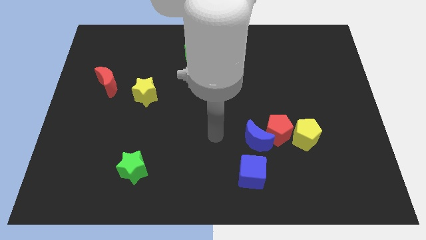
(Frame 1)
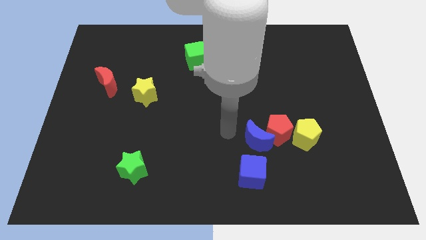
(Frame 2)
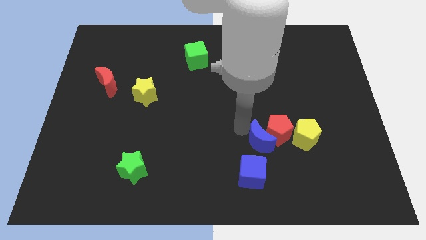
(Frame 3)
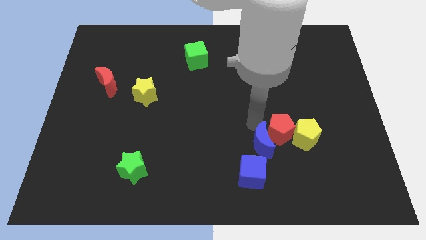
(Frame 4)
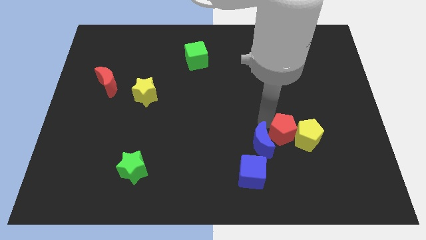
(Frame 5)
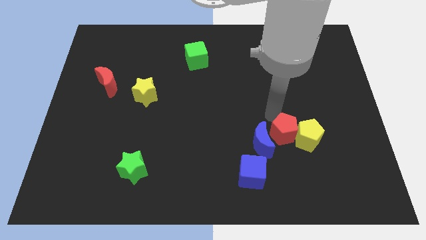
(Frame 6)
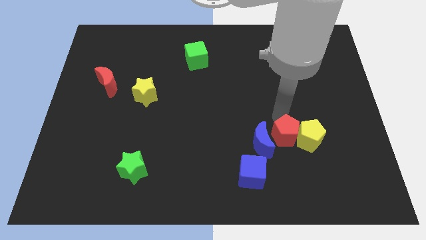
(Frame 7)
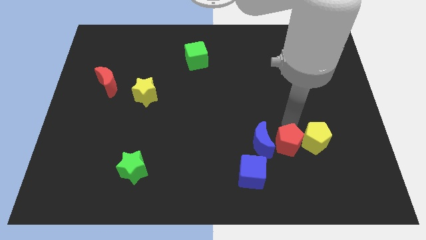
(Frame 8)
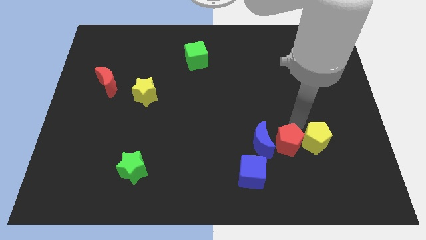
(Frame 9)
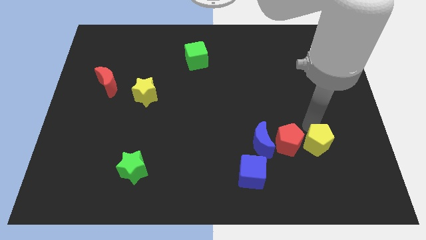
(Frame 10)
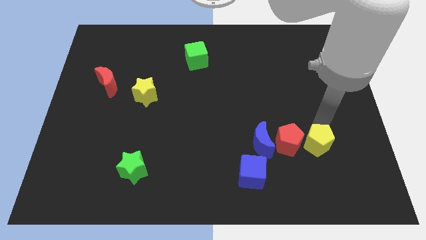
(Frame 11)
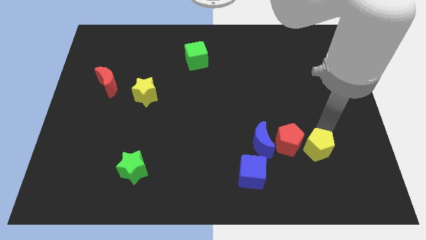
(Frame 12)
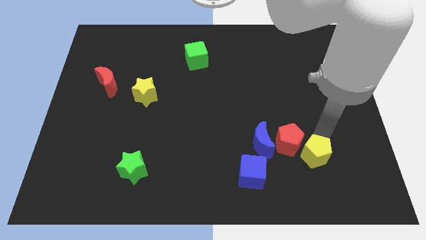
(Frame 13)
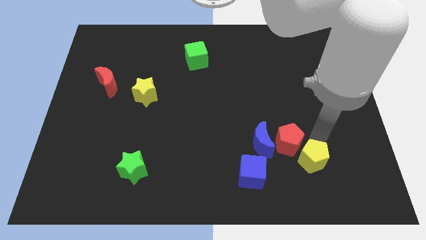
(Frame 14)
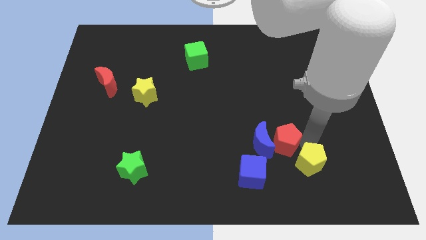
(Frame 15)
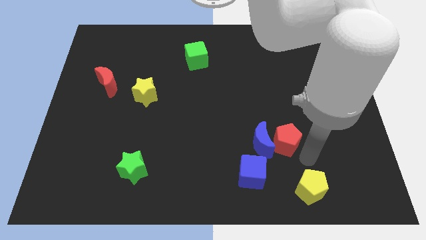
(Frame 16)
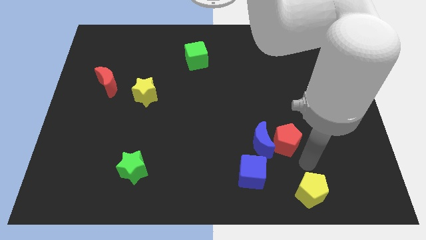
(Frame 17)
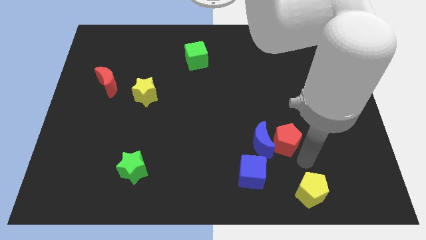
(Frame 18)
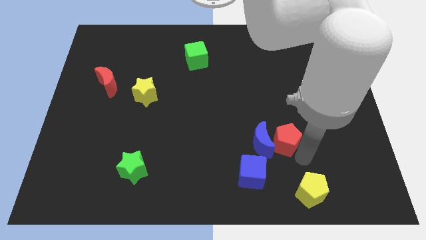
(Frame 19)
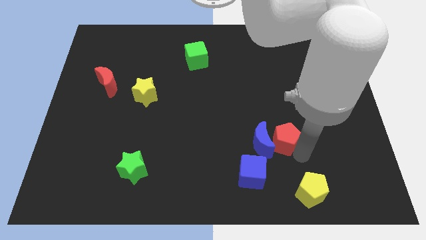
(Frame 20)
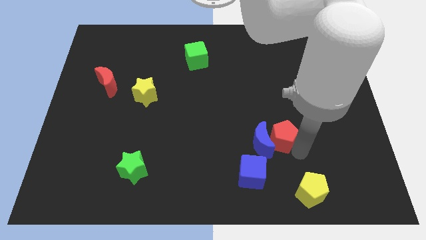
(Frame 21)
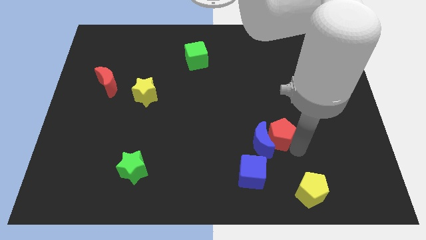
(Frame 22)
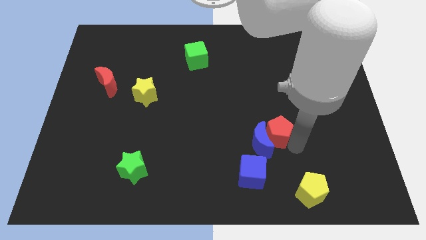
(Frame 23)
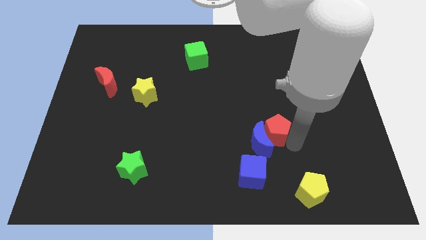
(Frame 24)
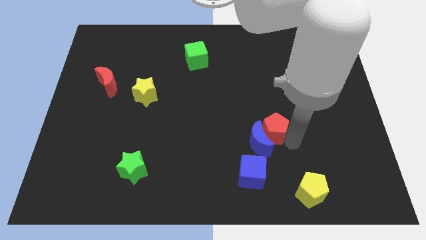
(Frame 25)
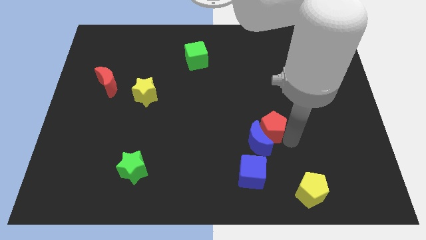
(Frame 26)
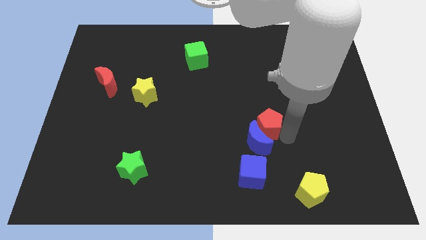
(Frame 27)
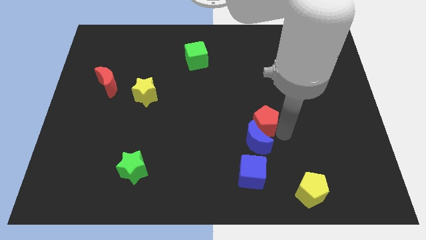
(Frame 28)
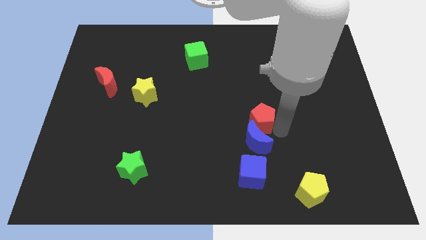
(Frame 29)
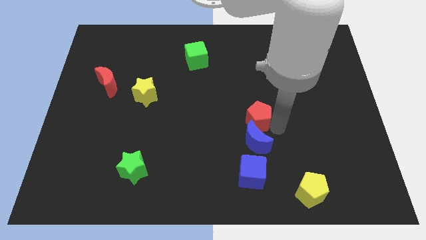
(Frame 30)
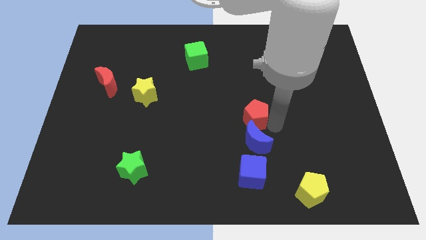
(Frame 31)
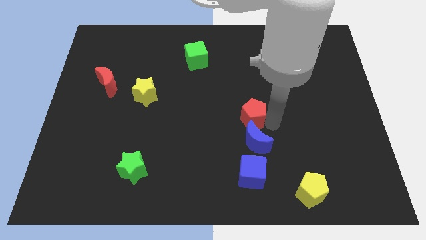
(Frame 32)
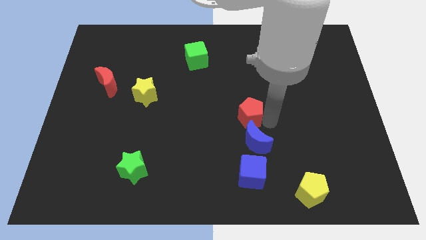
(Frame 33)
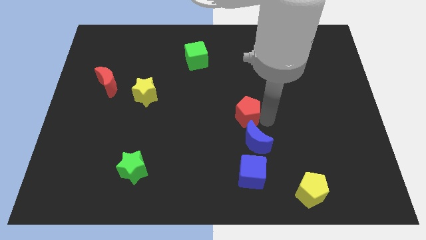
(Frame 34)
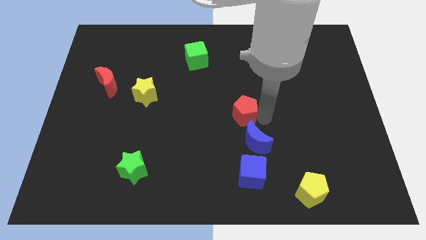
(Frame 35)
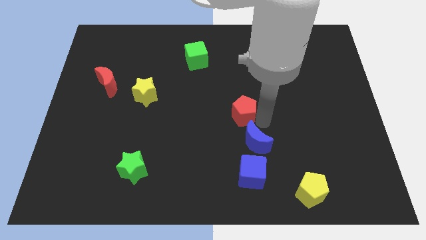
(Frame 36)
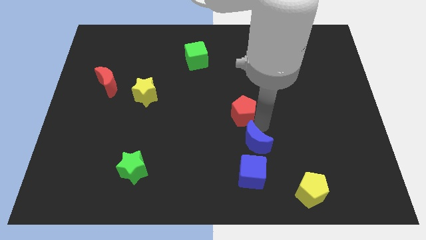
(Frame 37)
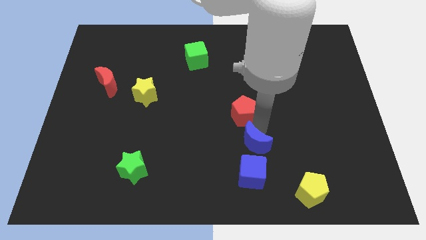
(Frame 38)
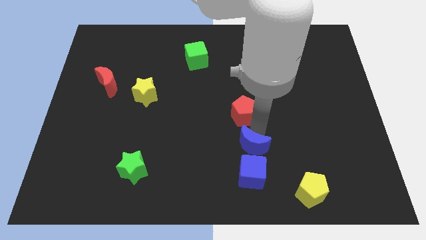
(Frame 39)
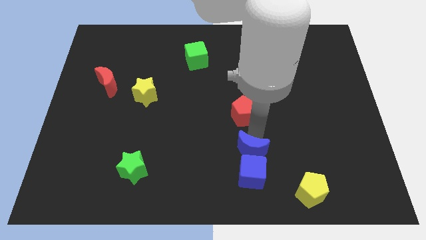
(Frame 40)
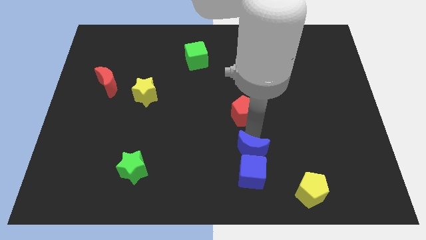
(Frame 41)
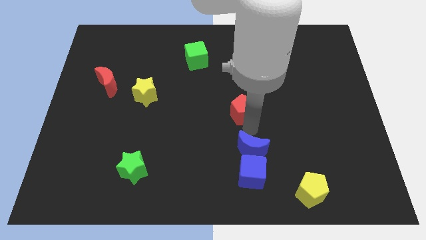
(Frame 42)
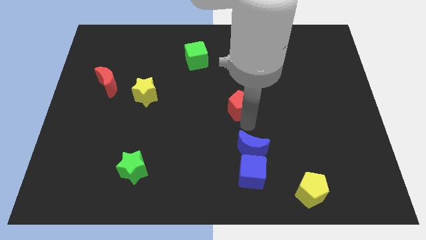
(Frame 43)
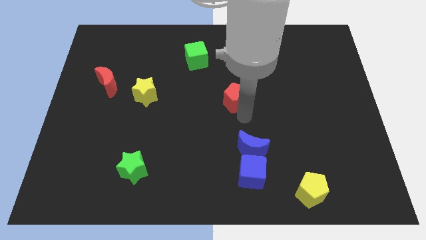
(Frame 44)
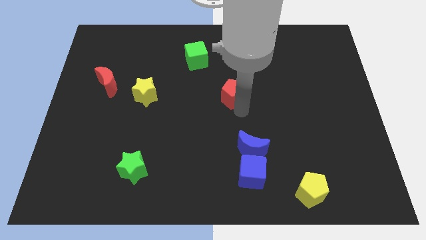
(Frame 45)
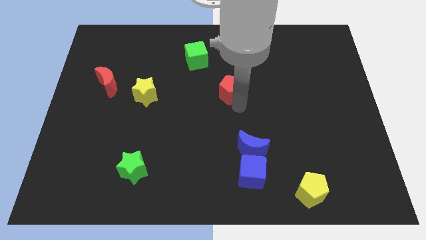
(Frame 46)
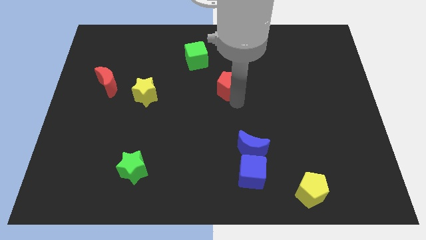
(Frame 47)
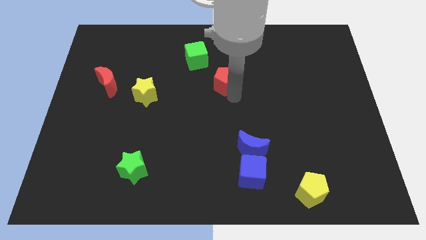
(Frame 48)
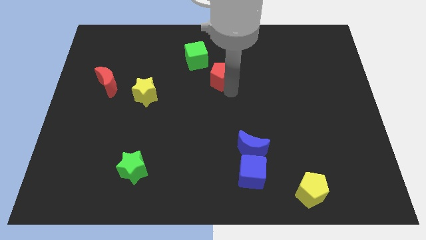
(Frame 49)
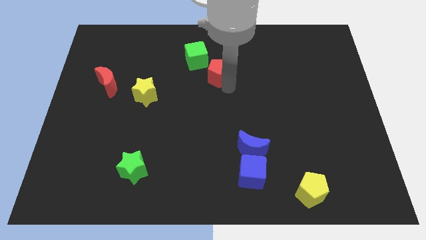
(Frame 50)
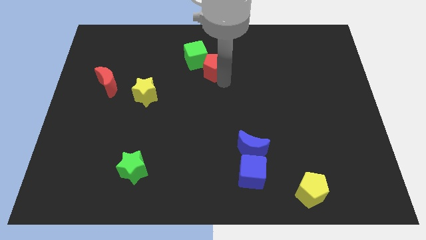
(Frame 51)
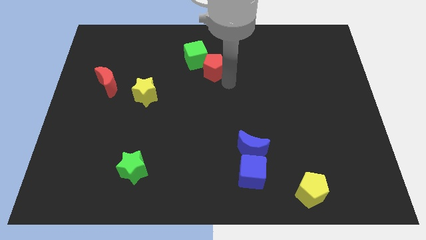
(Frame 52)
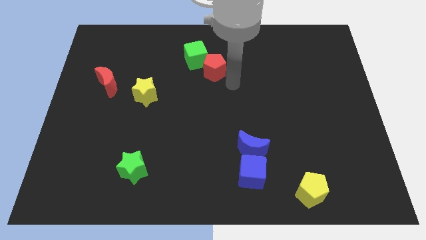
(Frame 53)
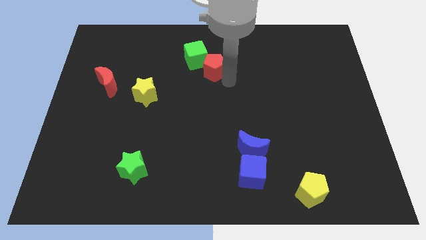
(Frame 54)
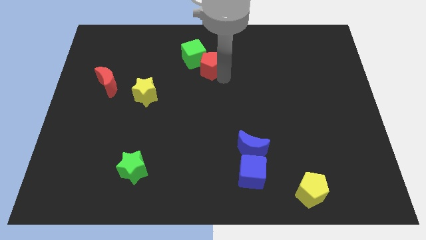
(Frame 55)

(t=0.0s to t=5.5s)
slide the red pentagon towards the green cube

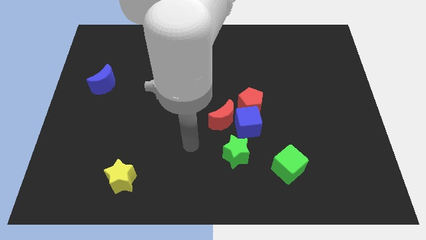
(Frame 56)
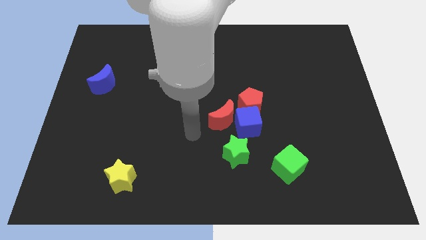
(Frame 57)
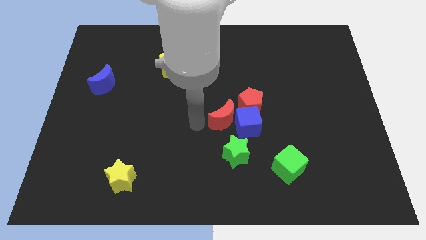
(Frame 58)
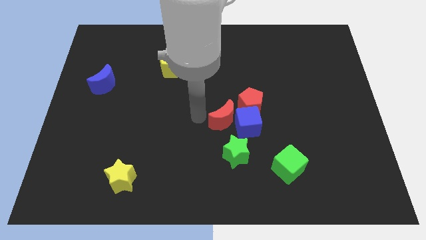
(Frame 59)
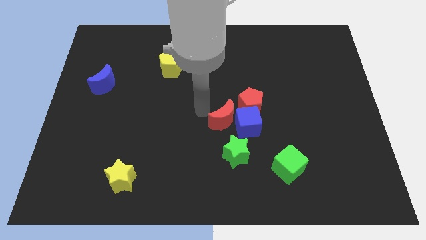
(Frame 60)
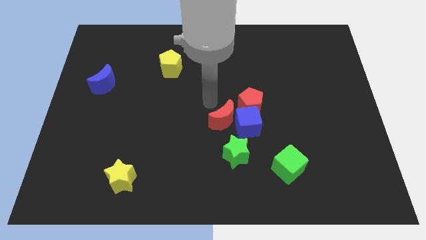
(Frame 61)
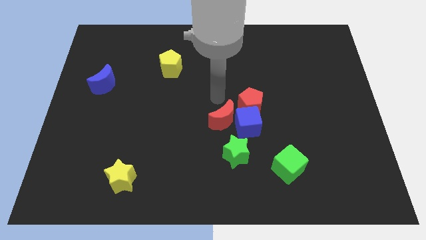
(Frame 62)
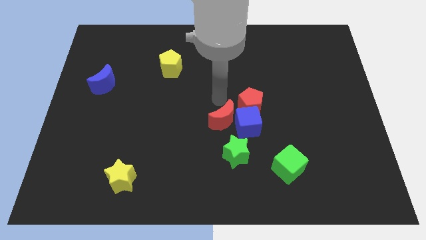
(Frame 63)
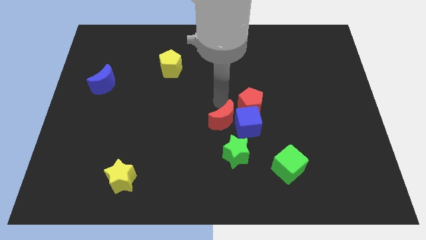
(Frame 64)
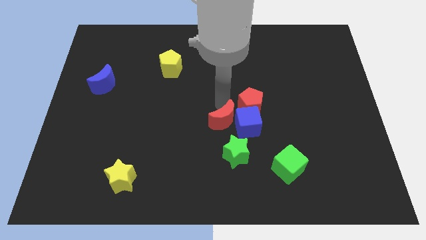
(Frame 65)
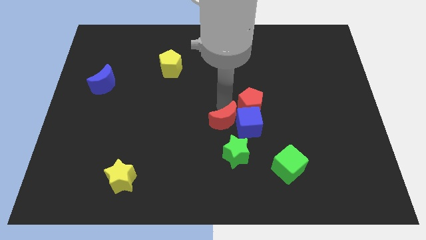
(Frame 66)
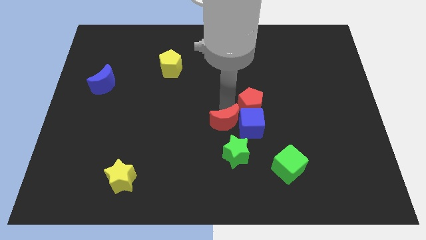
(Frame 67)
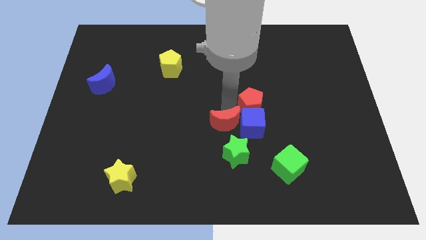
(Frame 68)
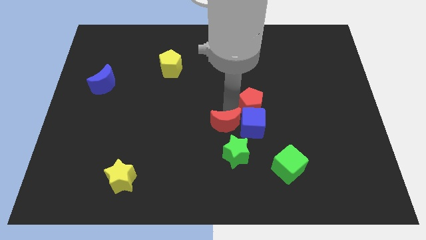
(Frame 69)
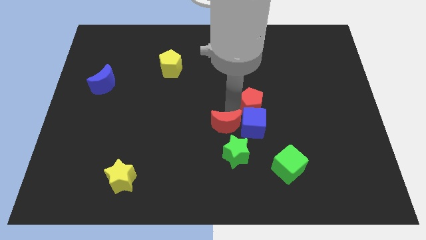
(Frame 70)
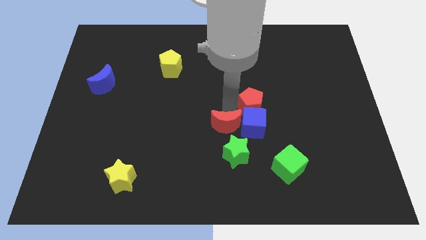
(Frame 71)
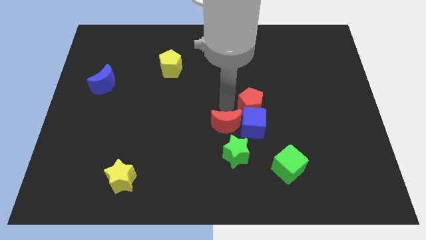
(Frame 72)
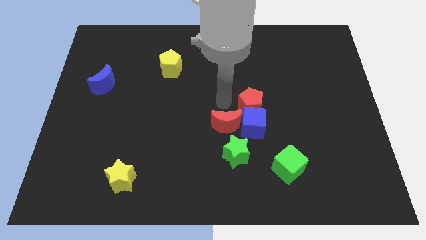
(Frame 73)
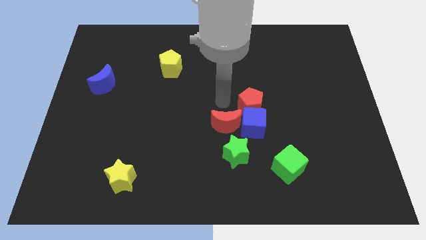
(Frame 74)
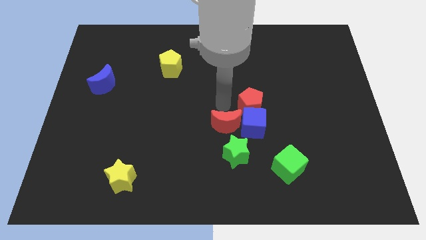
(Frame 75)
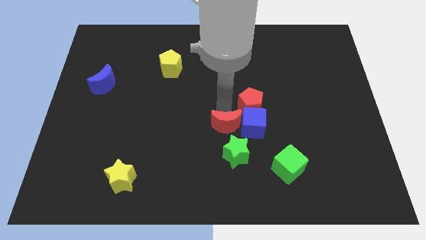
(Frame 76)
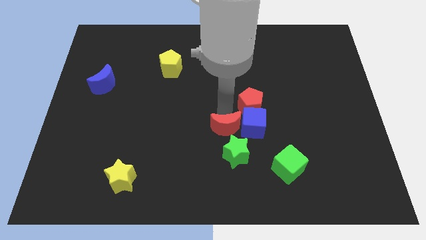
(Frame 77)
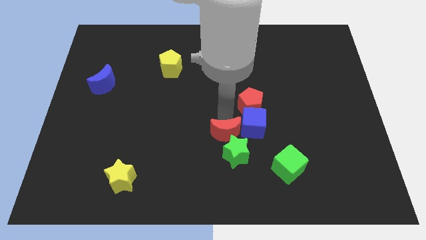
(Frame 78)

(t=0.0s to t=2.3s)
move the red moon to the green star
